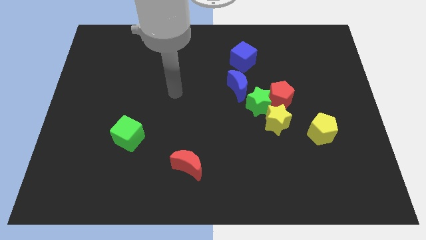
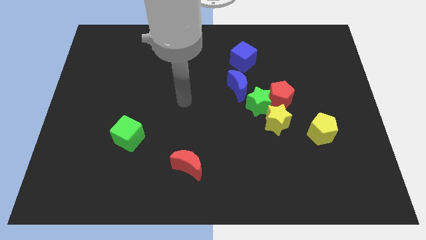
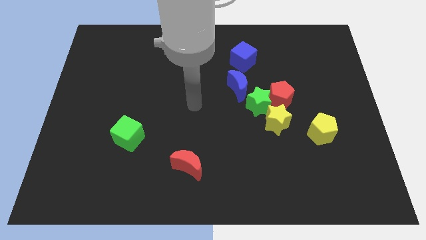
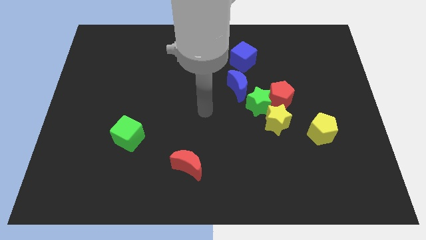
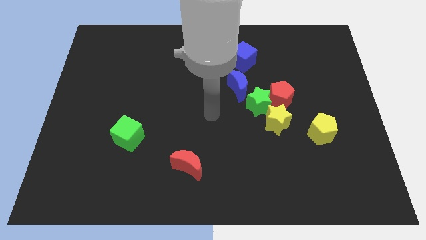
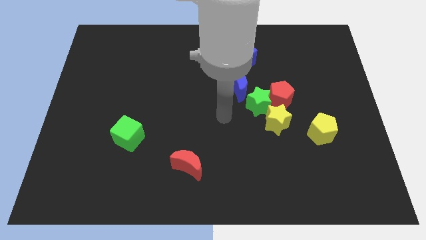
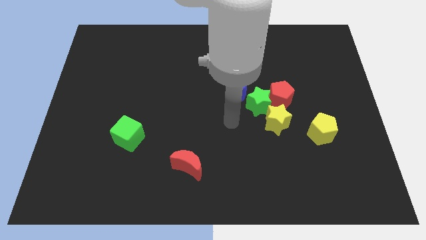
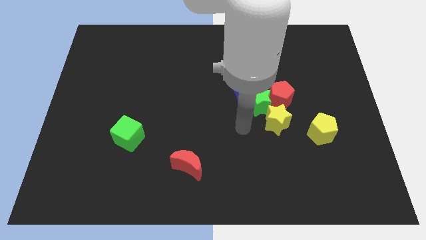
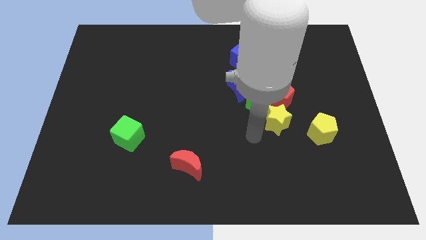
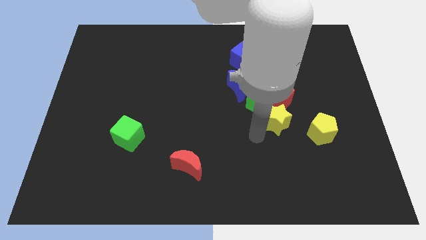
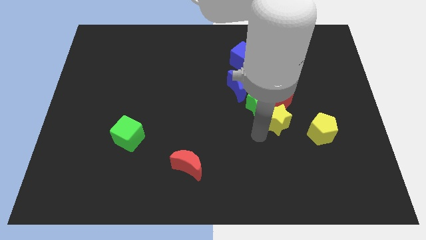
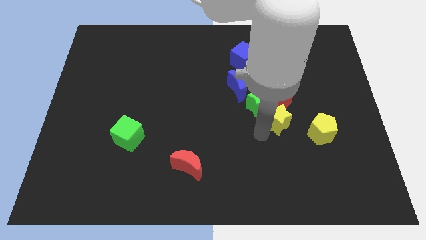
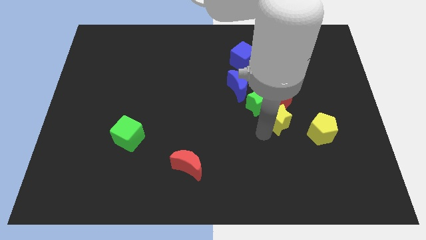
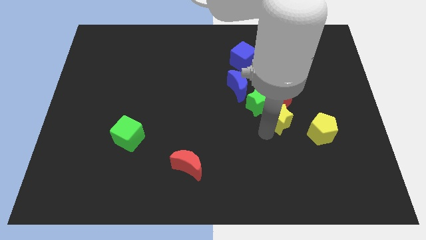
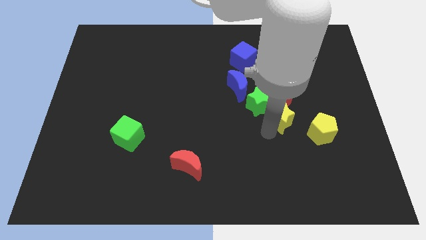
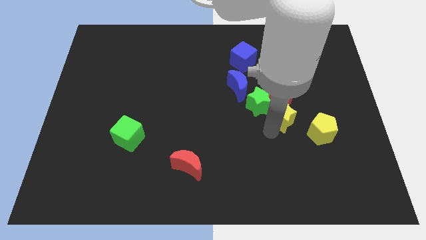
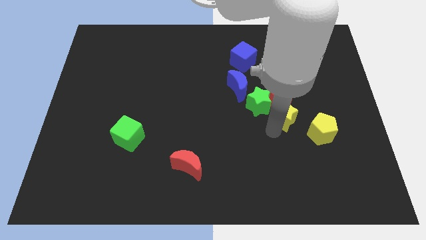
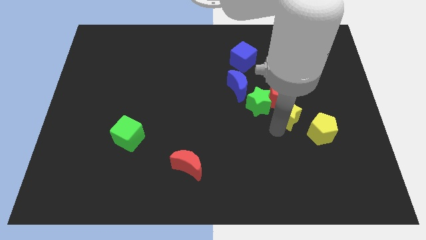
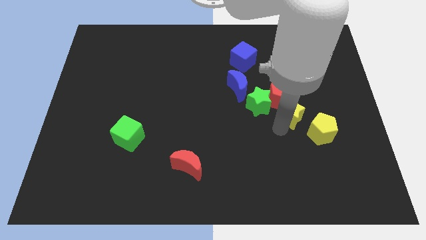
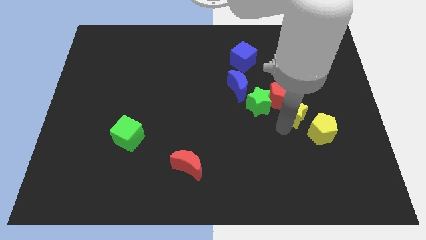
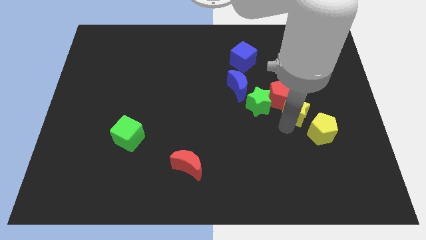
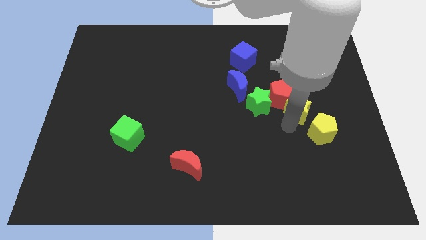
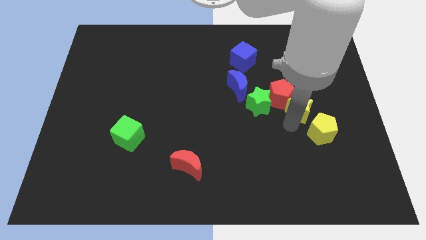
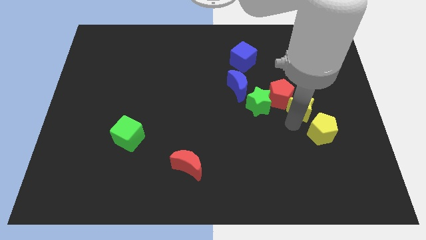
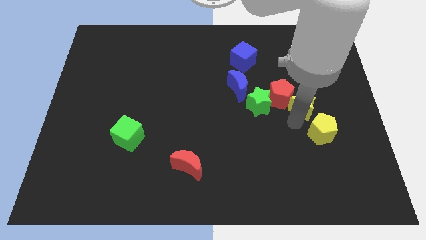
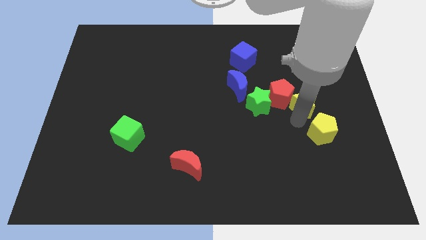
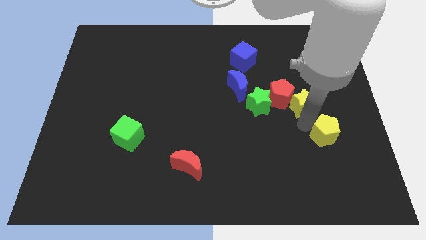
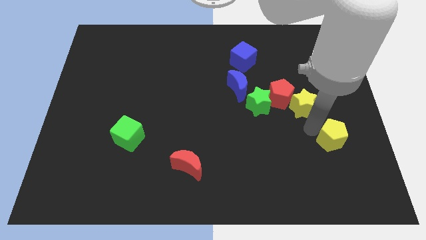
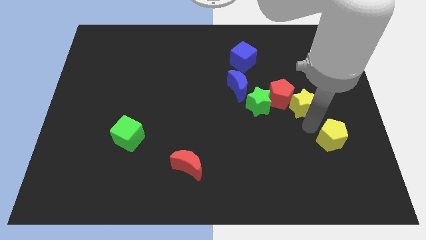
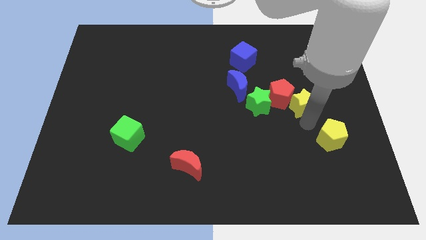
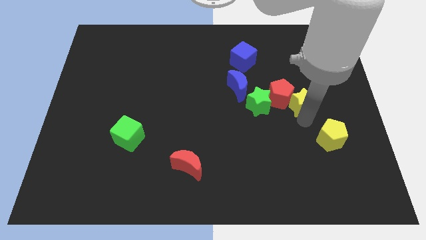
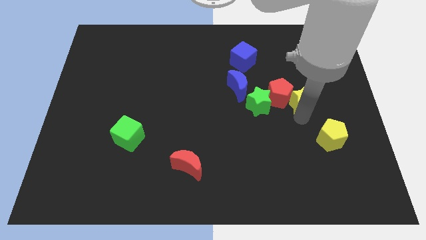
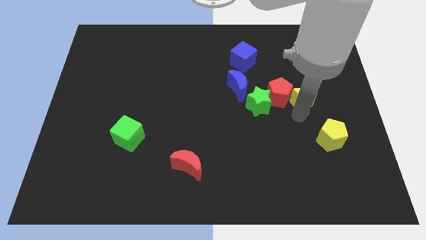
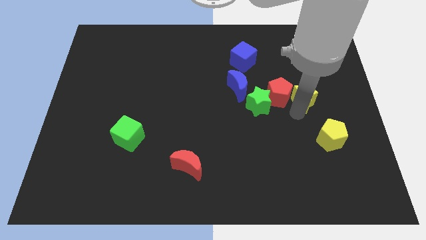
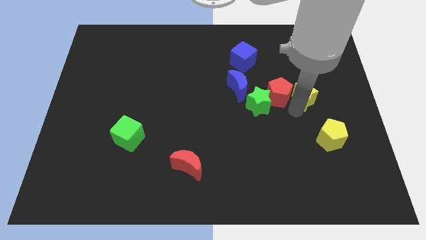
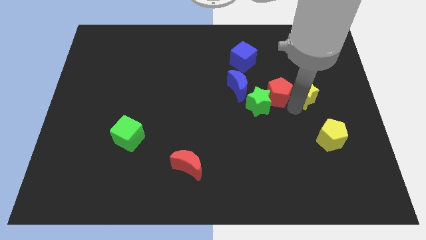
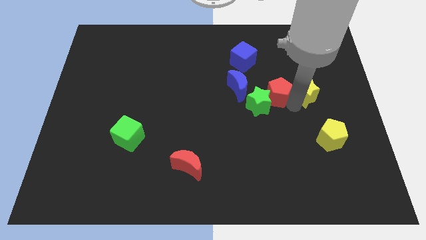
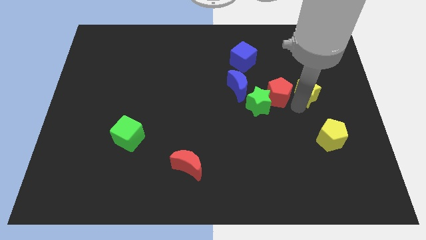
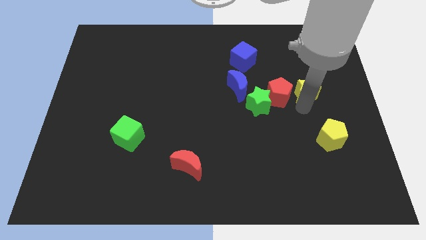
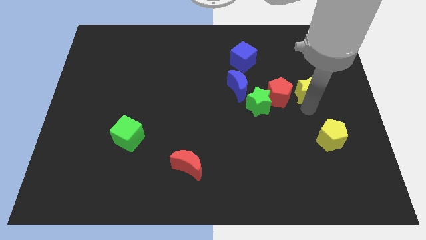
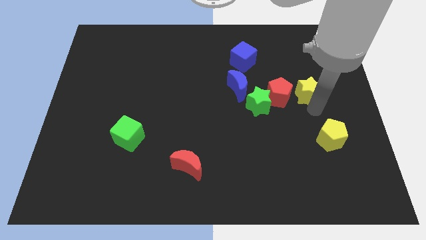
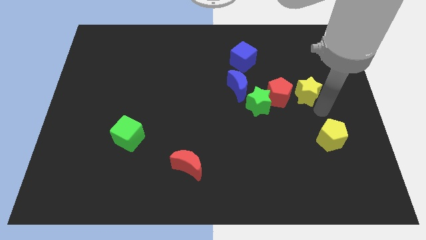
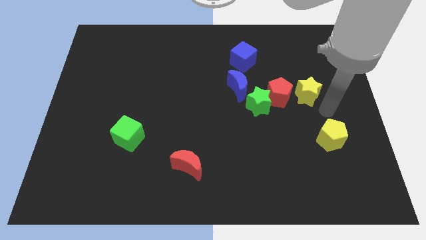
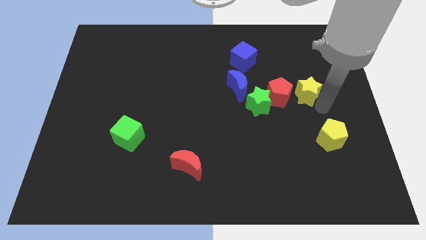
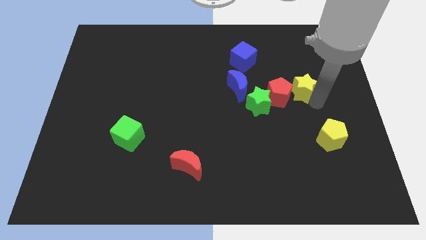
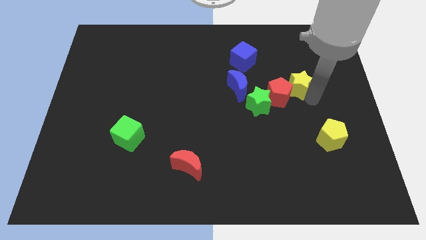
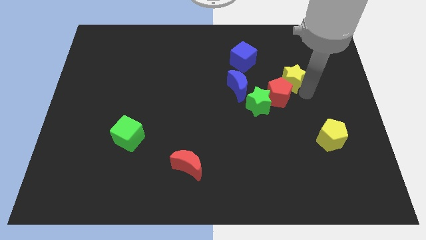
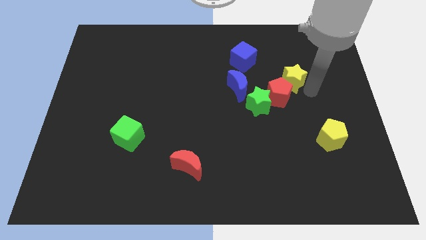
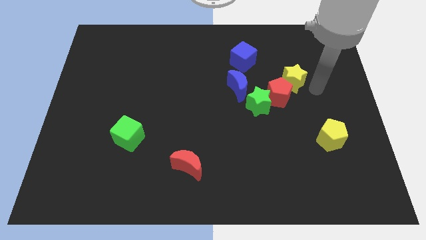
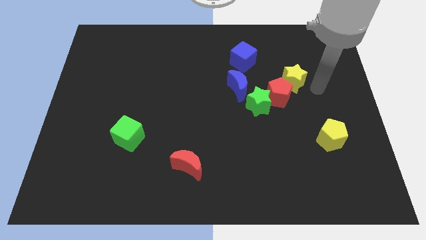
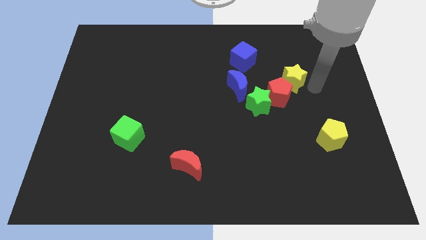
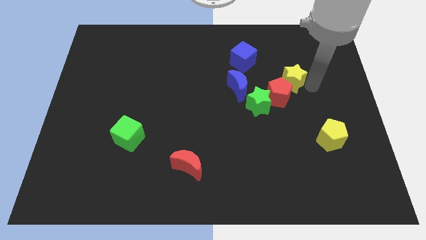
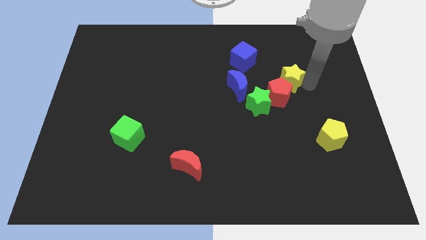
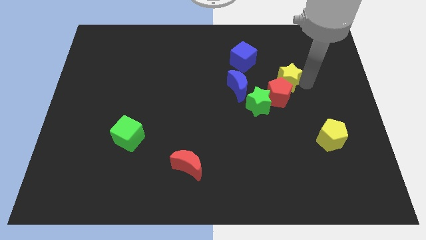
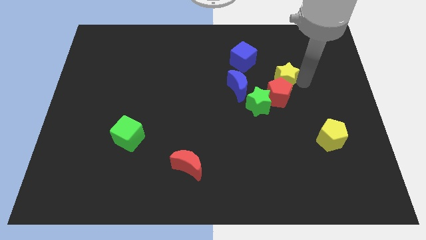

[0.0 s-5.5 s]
move the yellow star diagonally down and to the right of the blue cube

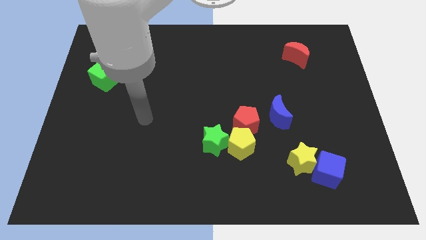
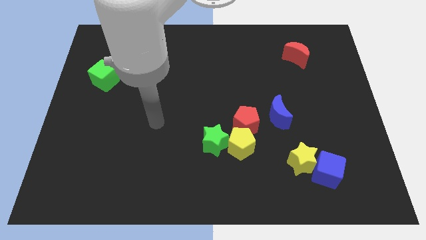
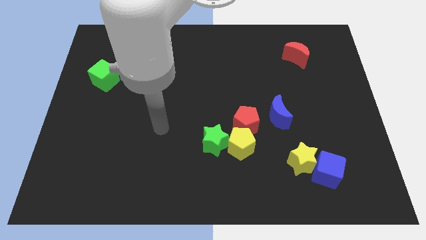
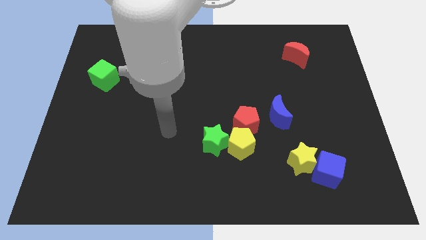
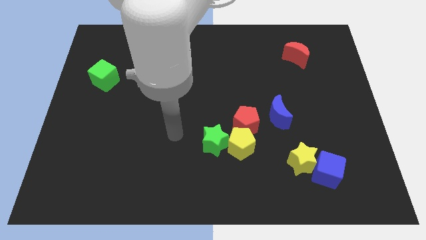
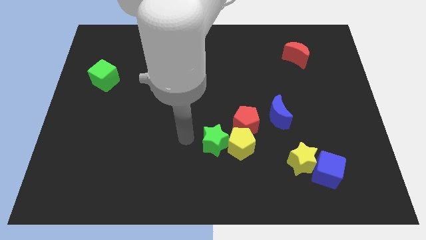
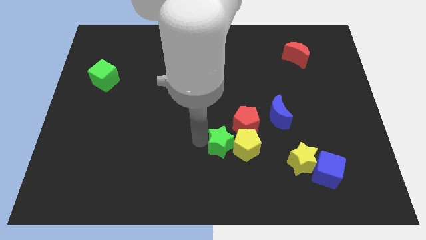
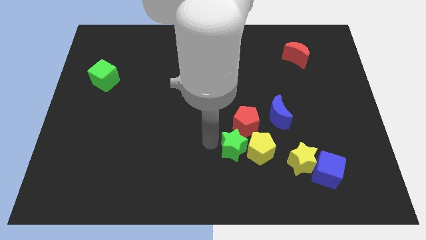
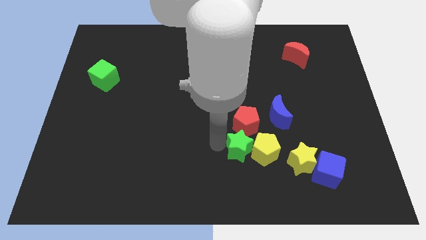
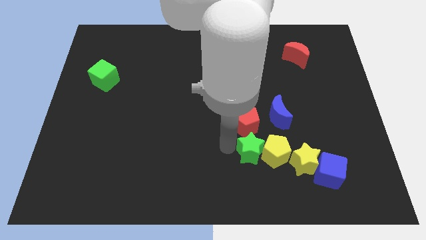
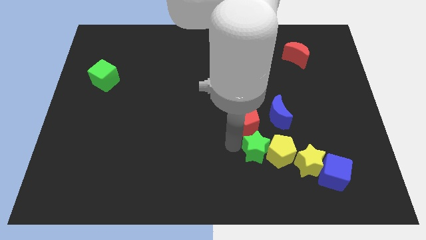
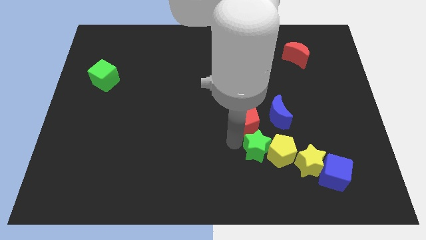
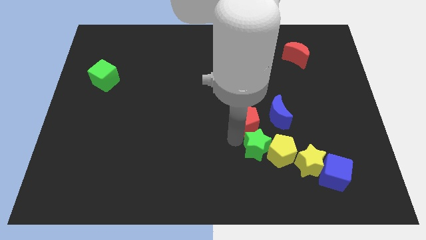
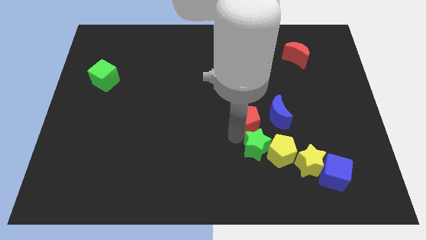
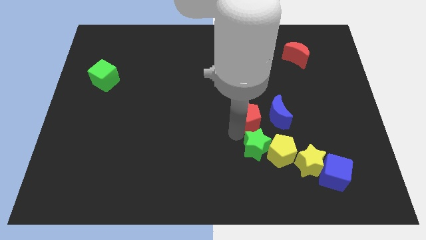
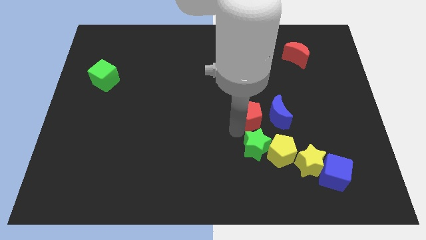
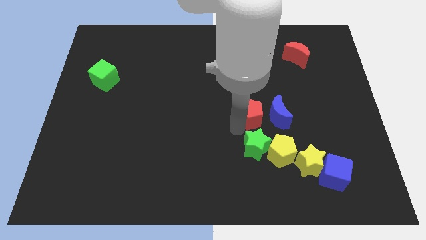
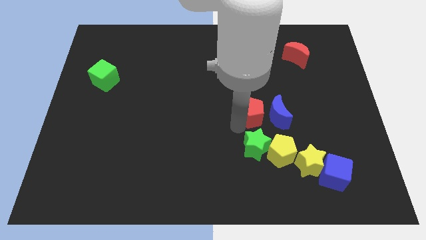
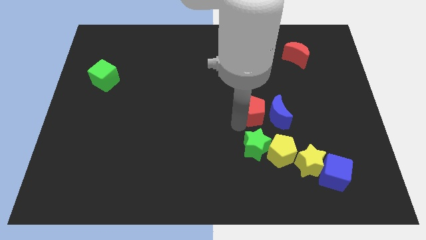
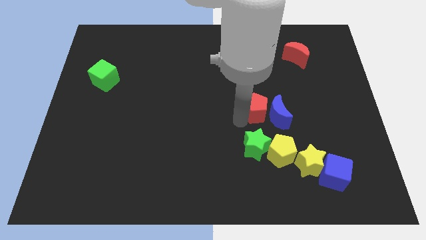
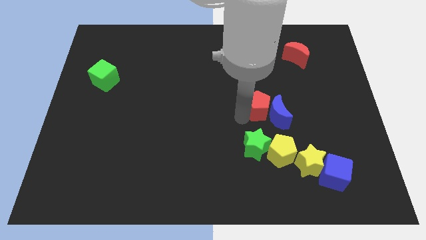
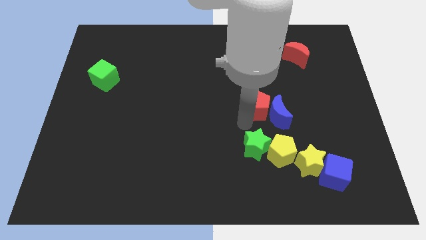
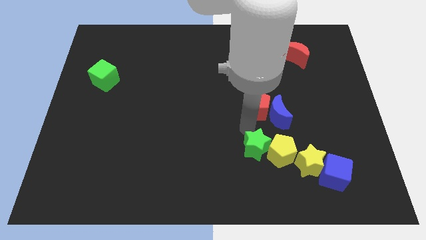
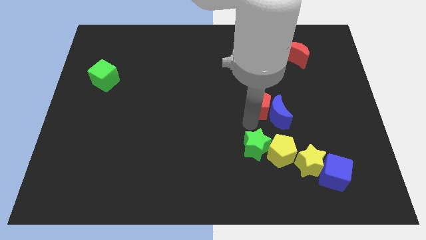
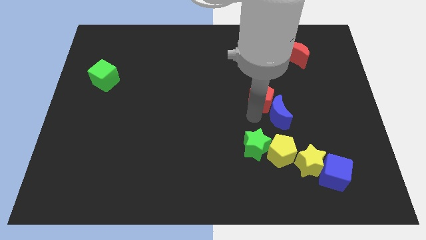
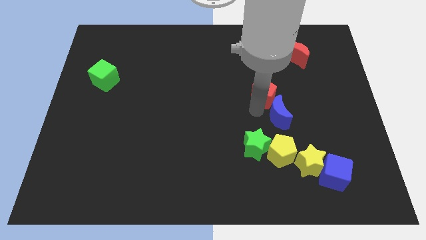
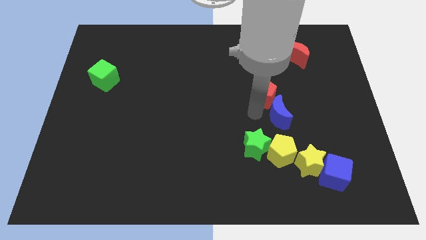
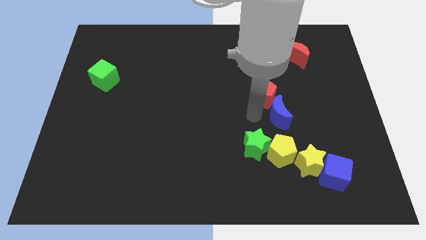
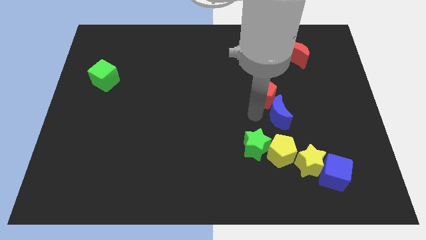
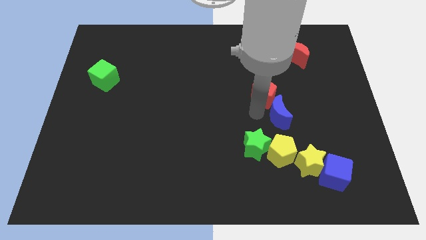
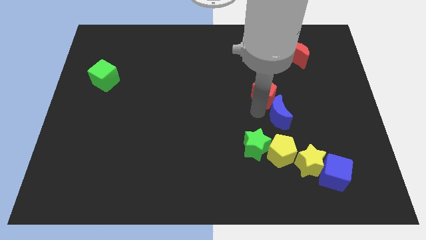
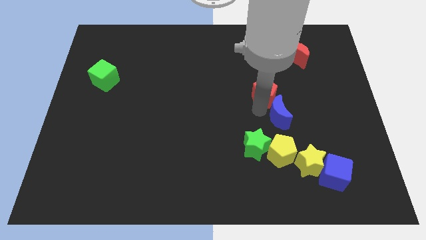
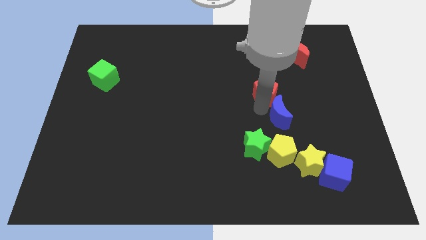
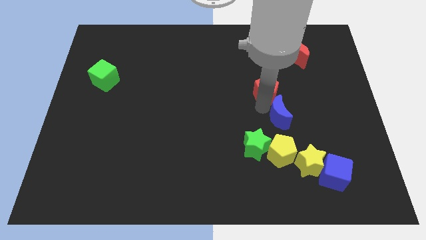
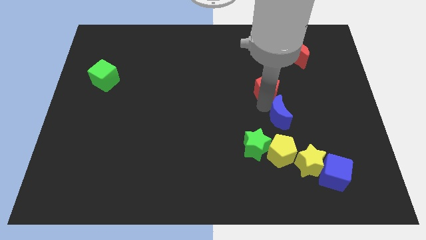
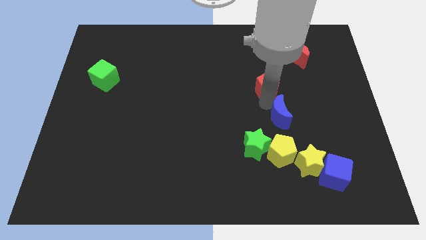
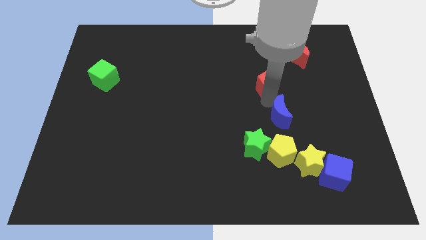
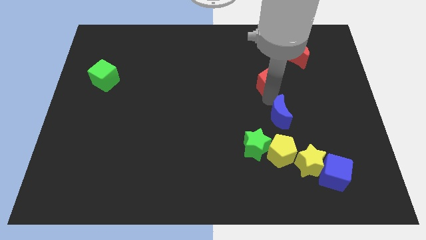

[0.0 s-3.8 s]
move the red pentagon to the bottom left side of the red moon
